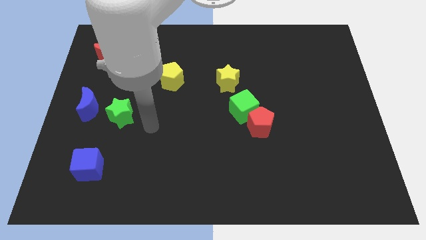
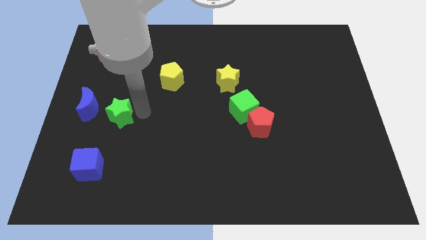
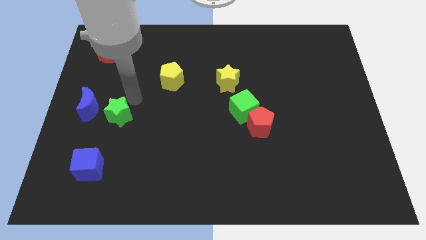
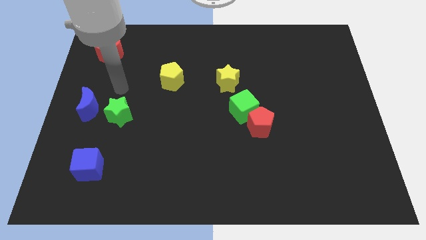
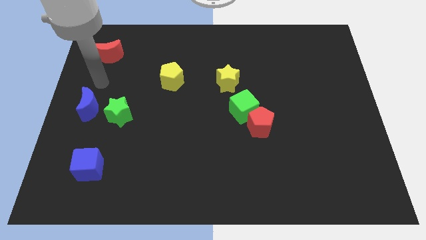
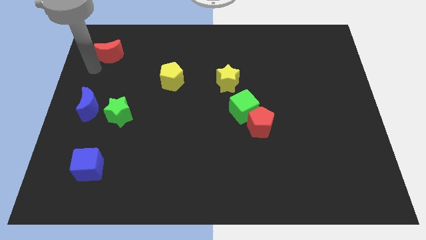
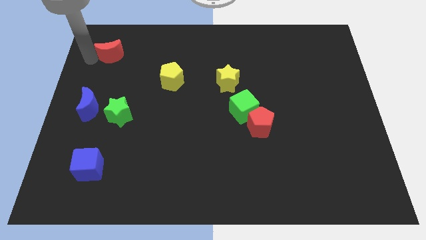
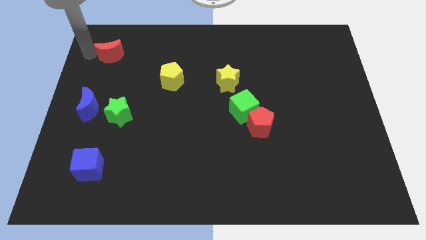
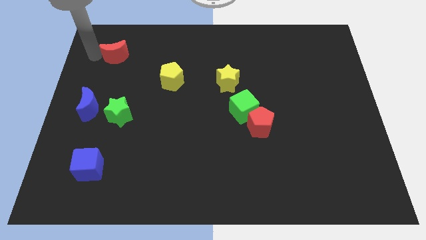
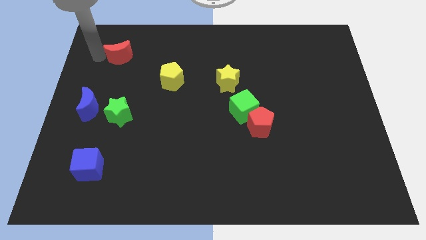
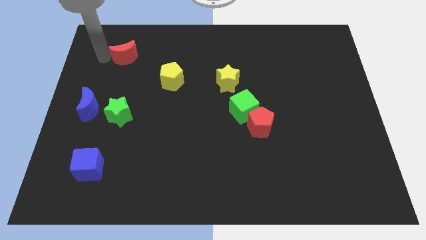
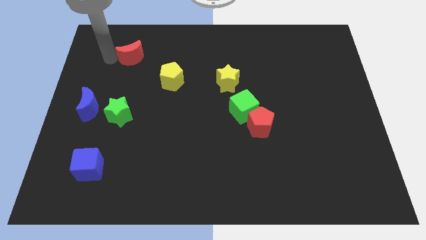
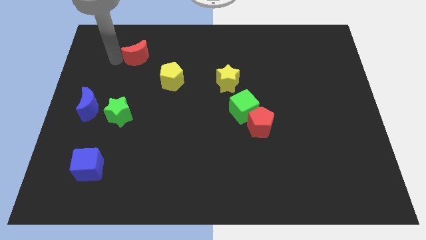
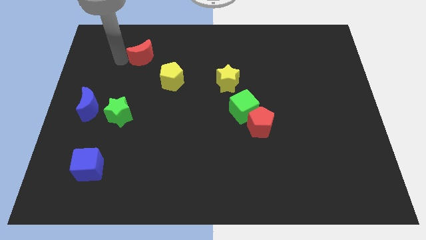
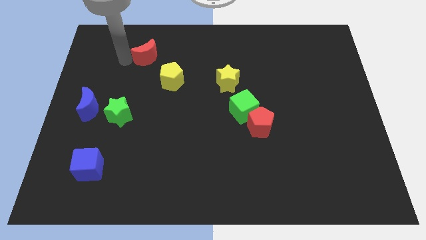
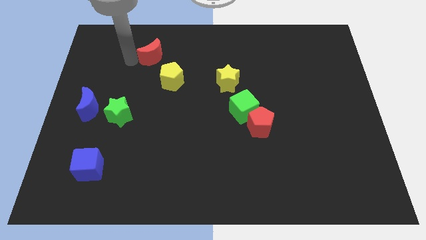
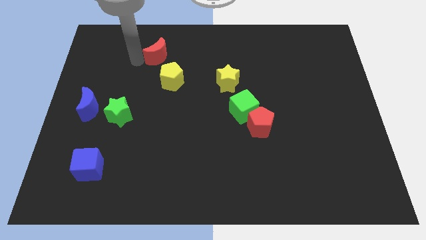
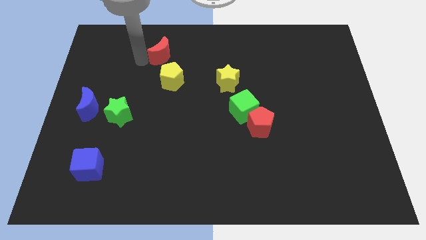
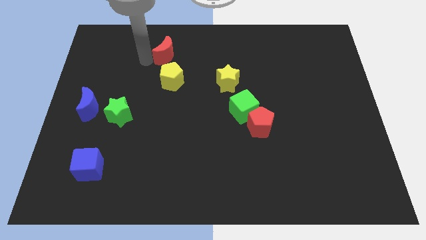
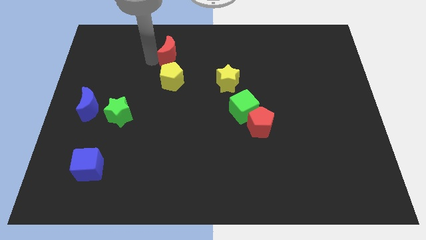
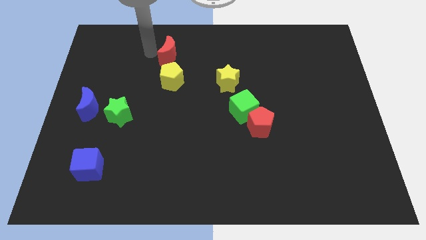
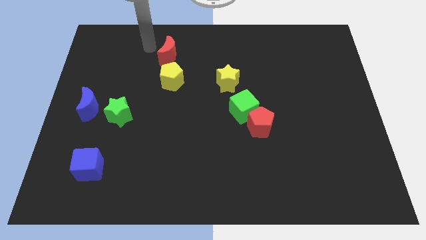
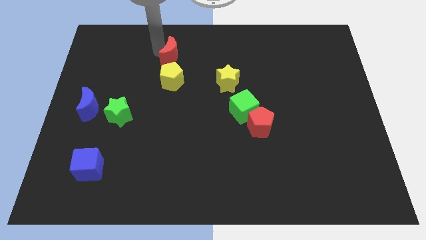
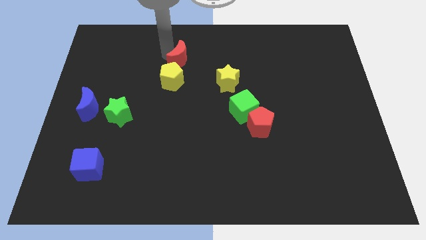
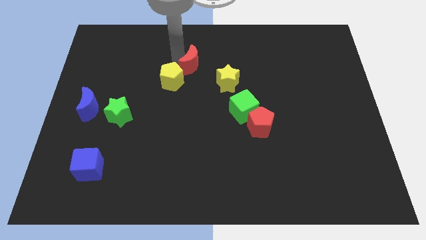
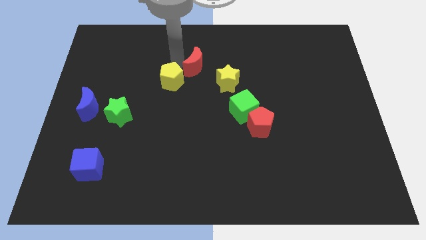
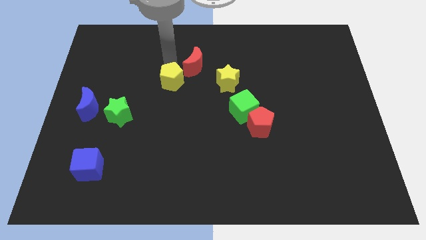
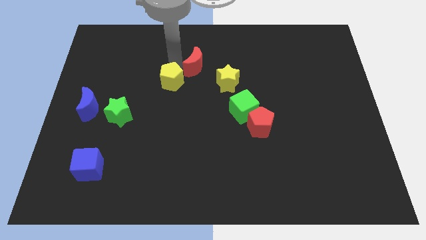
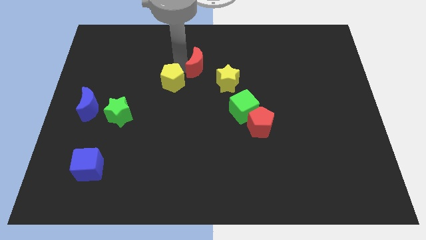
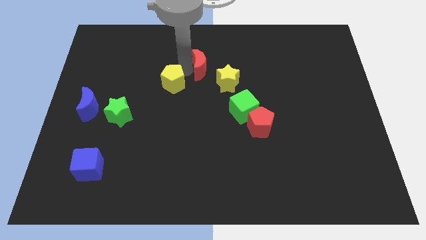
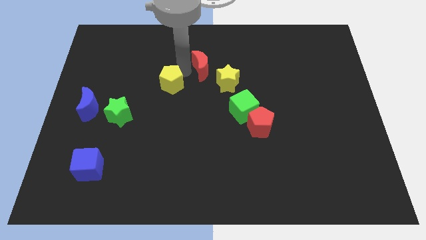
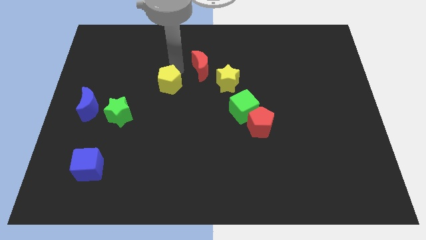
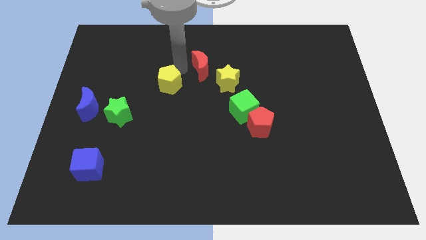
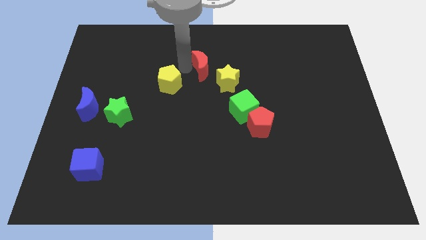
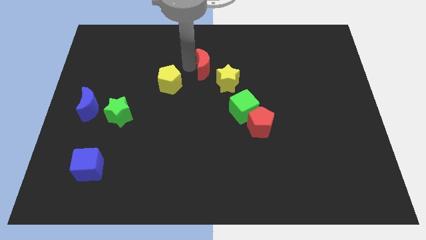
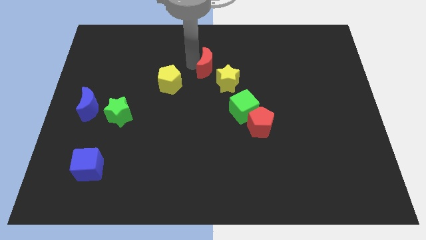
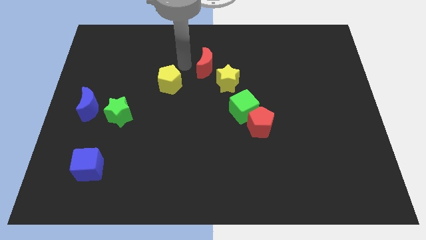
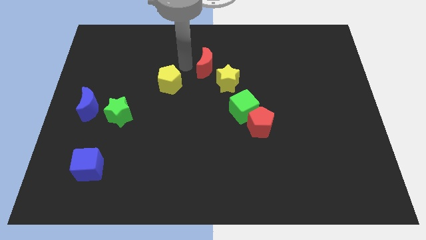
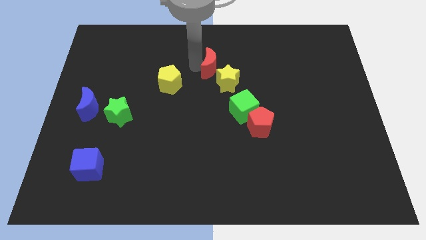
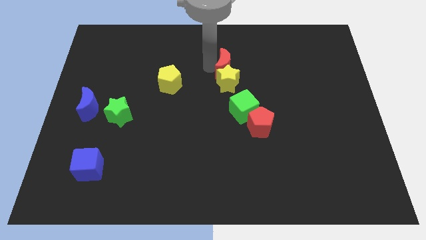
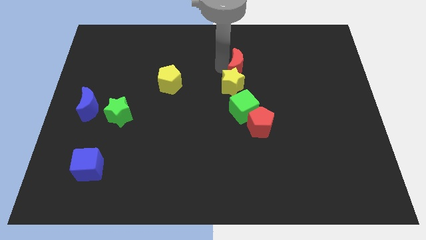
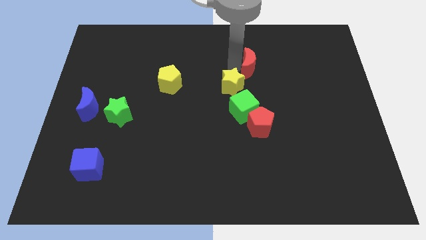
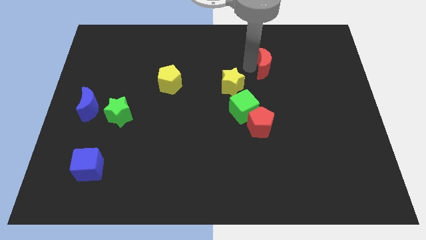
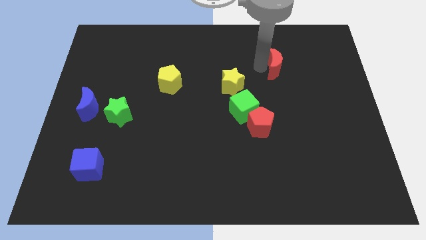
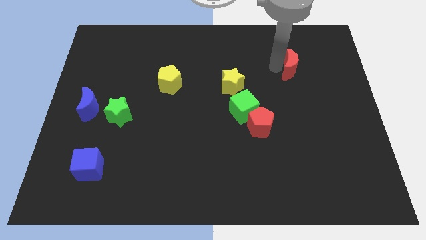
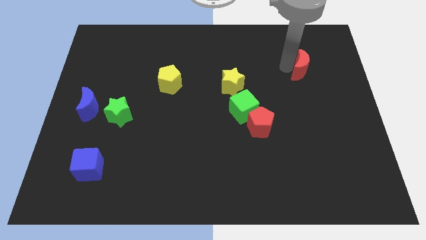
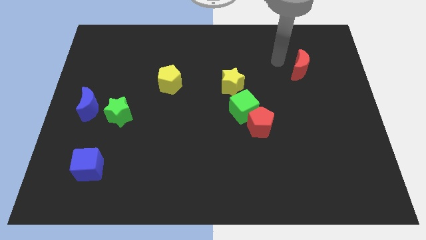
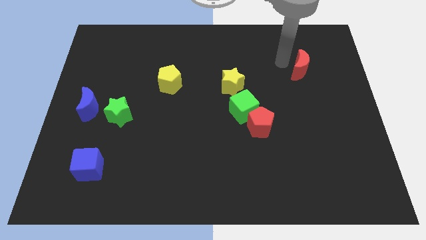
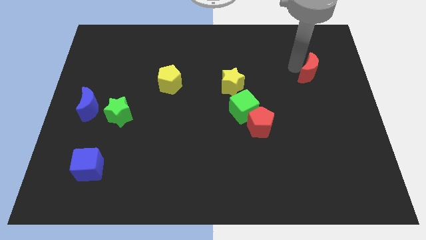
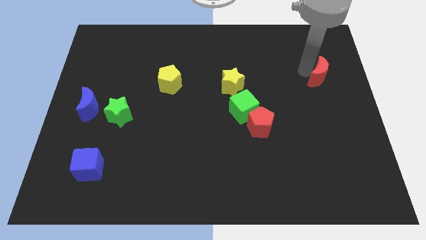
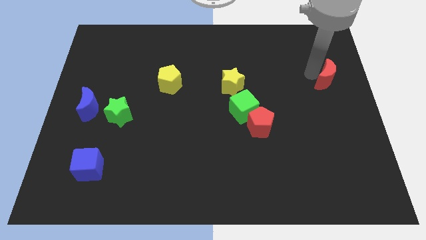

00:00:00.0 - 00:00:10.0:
move the red moon to the right side

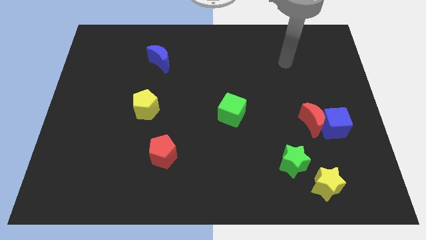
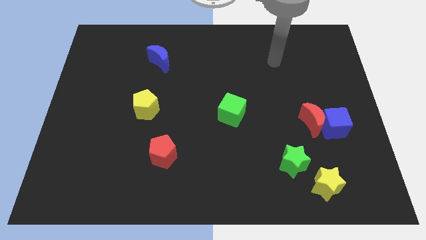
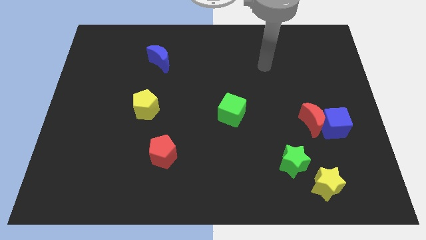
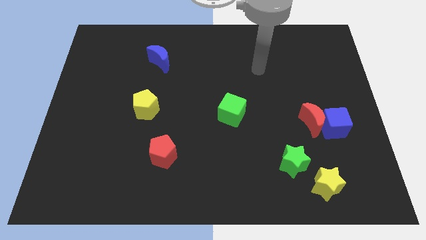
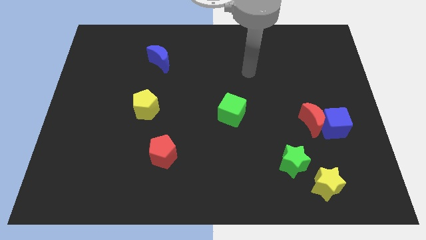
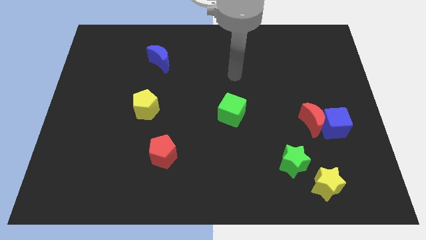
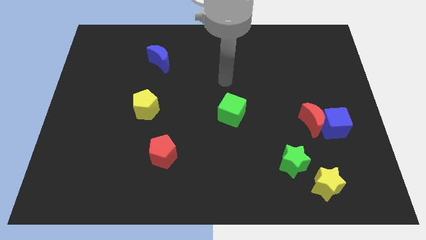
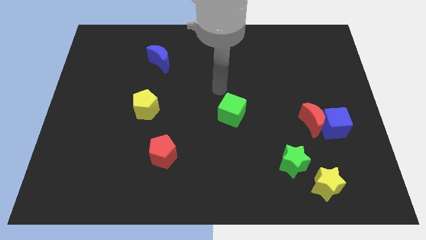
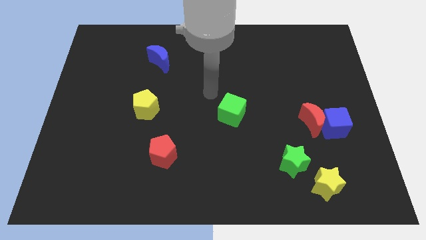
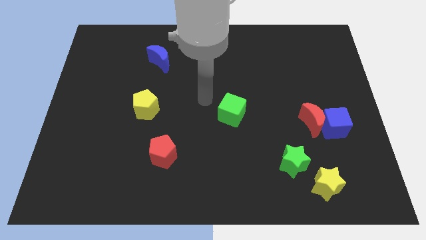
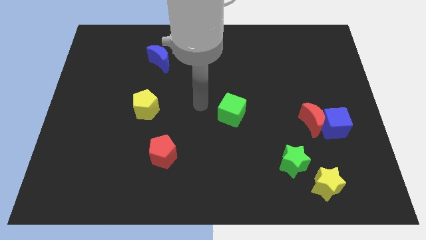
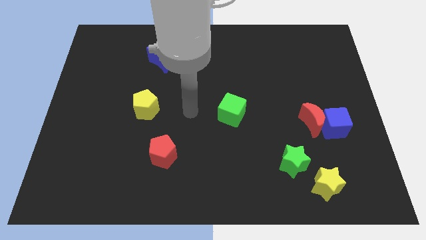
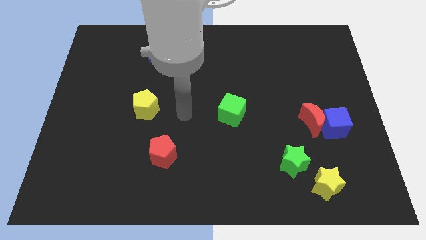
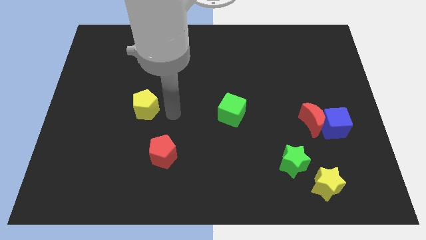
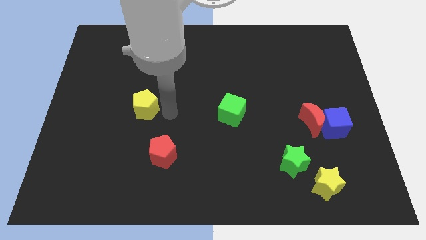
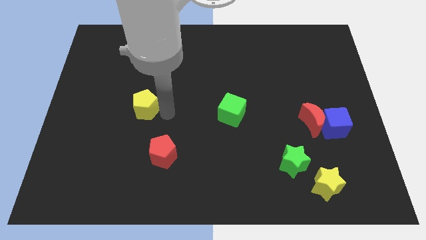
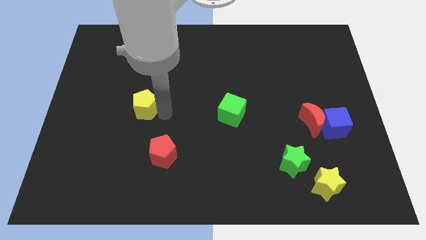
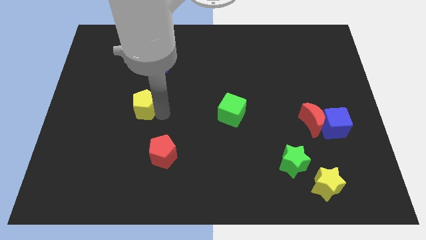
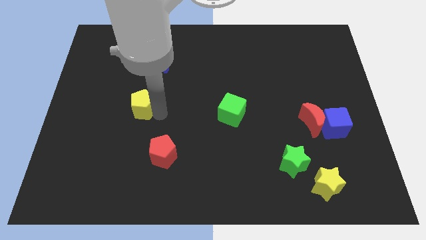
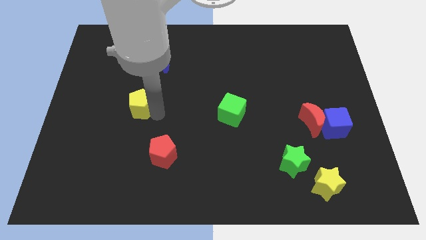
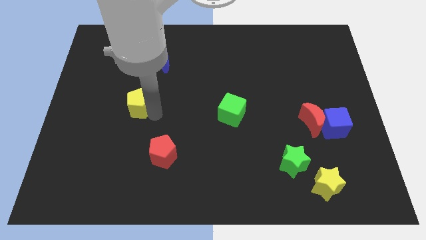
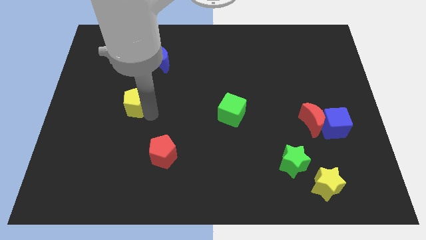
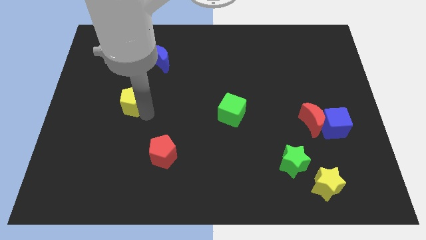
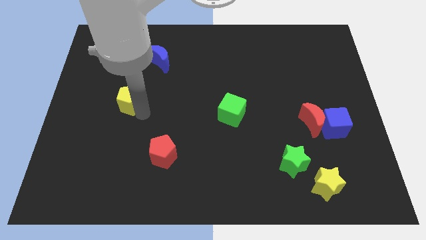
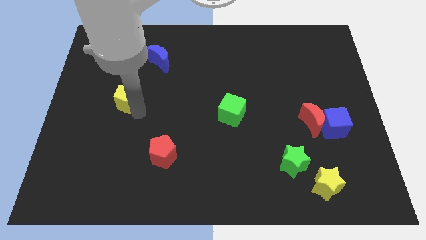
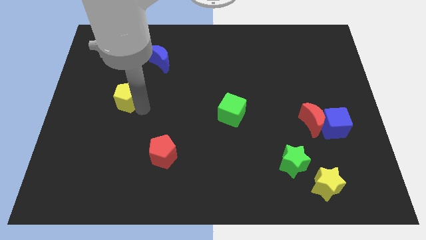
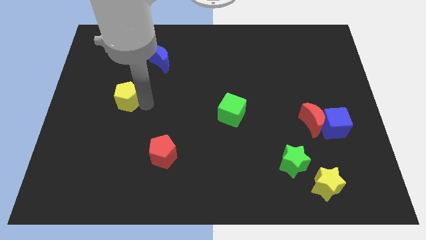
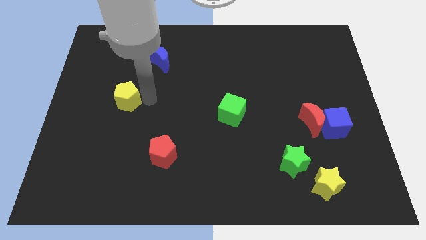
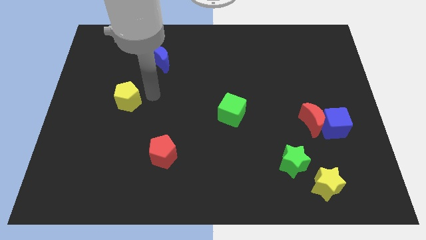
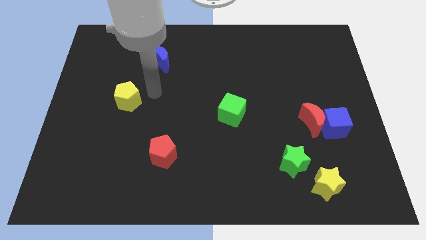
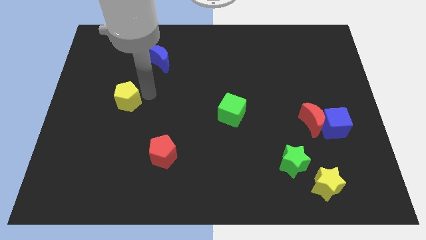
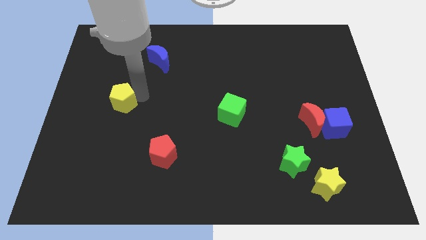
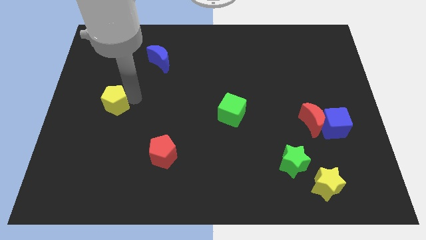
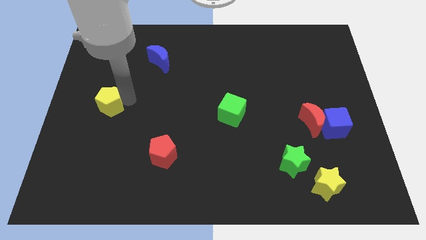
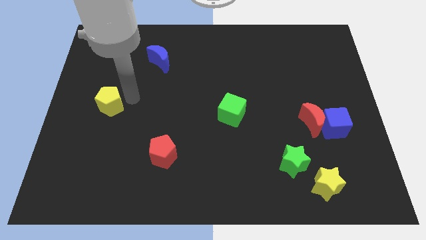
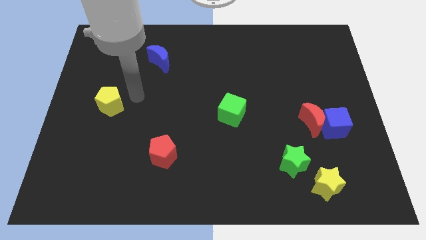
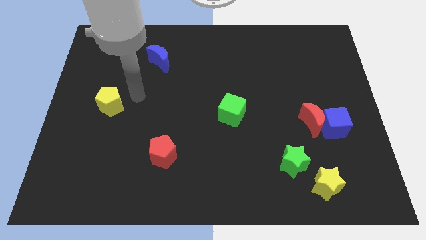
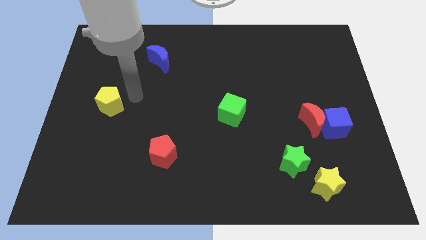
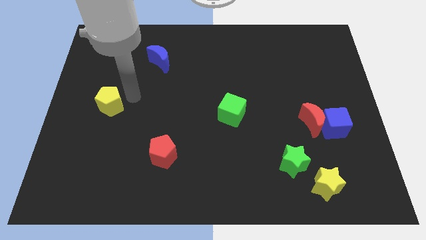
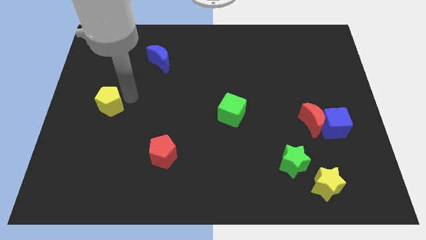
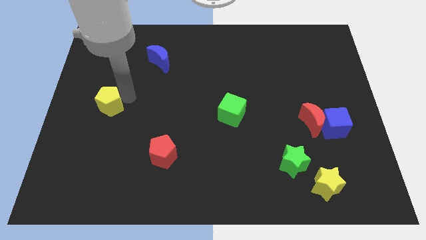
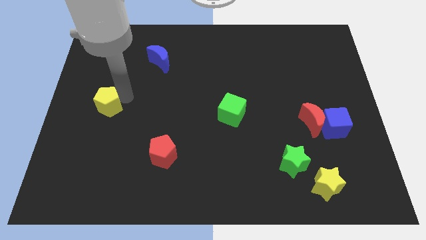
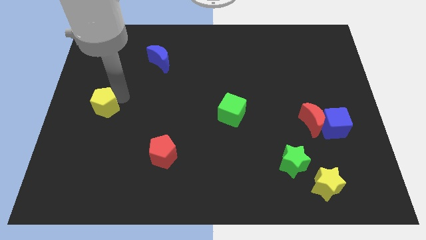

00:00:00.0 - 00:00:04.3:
slide the yellow pentagon to the left side
